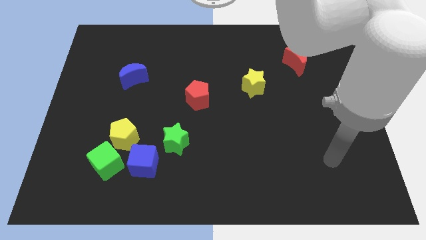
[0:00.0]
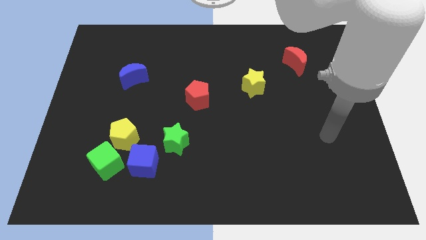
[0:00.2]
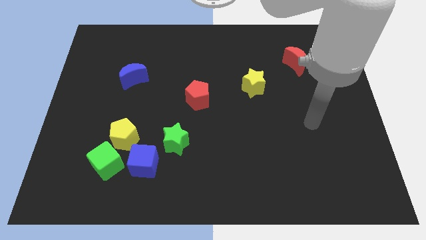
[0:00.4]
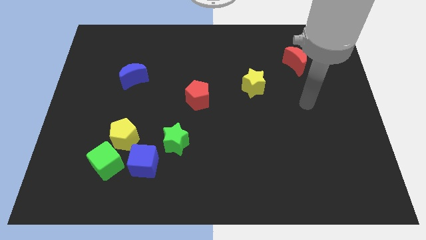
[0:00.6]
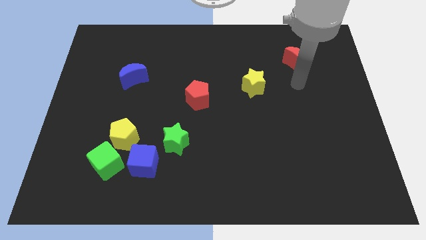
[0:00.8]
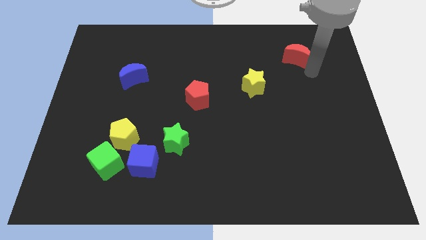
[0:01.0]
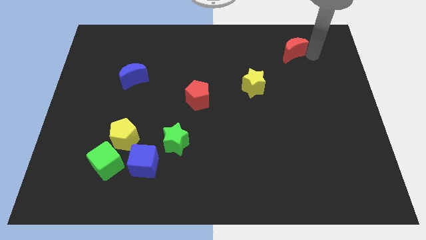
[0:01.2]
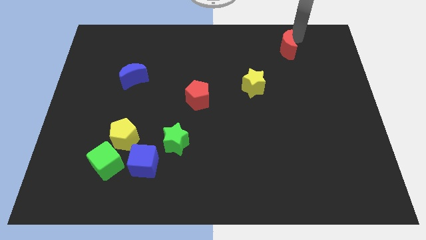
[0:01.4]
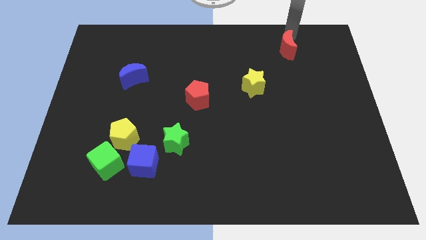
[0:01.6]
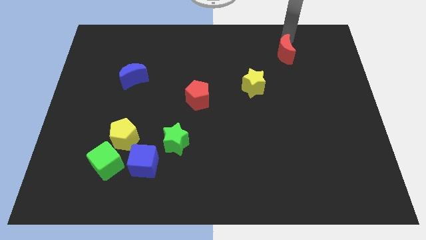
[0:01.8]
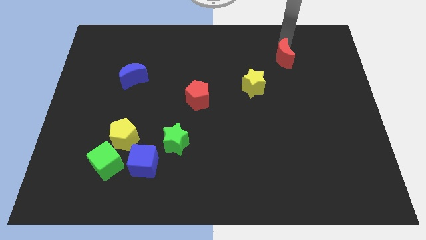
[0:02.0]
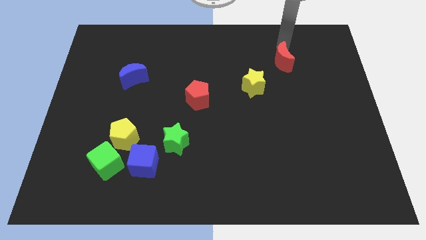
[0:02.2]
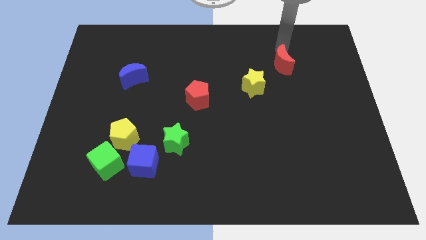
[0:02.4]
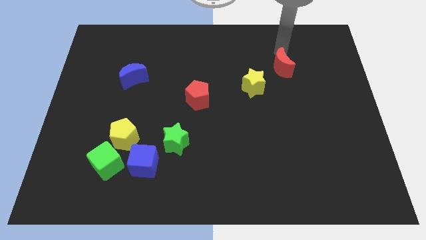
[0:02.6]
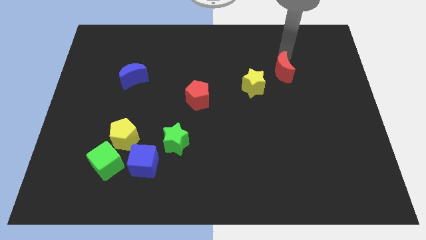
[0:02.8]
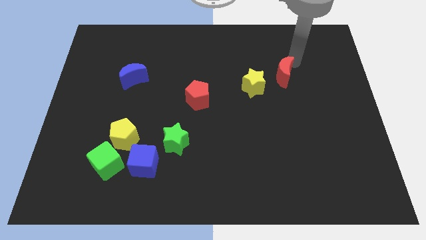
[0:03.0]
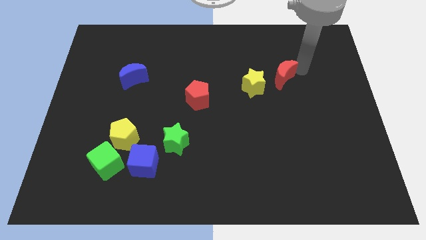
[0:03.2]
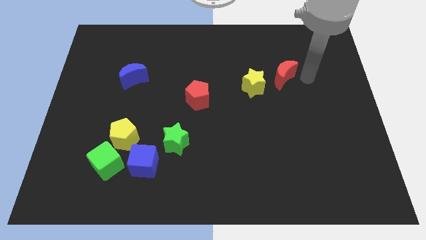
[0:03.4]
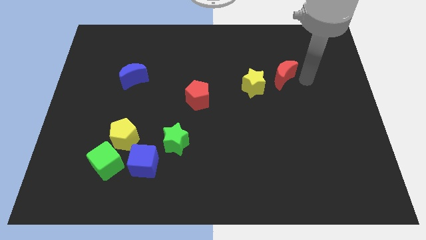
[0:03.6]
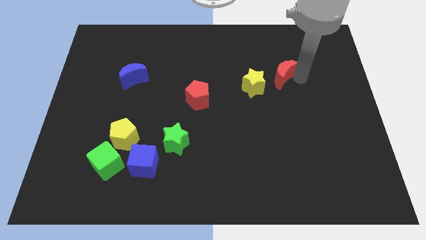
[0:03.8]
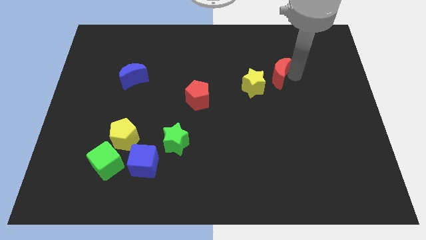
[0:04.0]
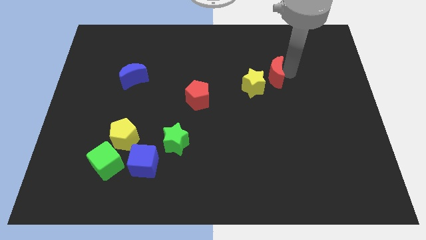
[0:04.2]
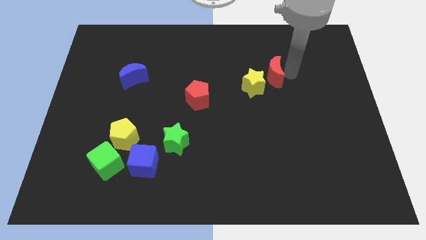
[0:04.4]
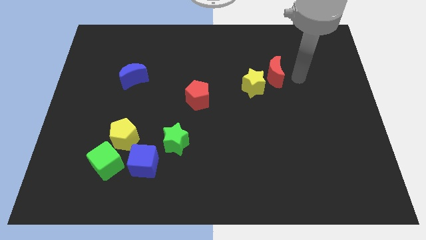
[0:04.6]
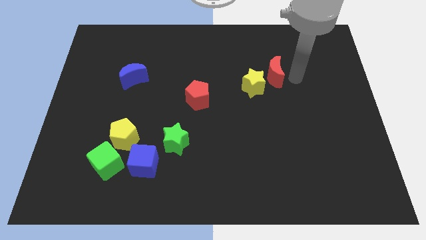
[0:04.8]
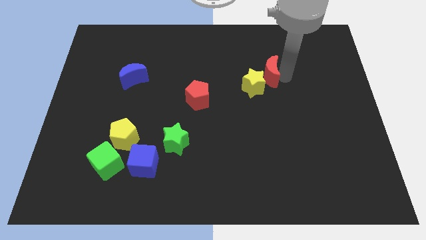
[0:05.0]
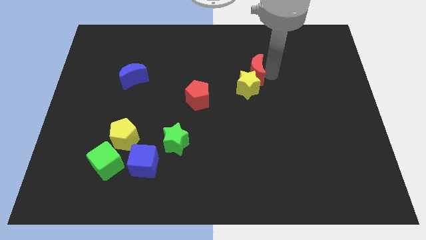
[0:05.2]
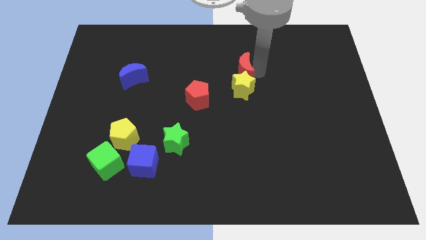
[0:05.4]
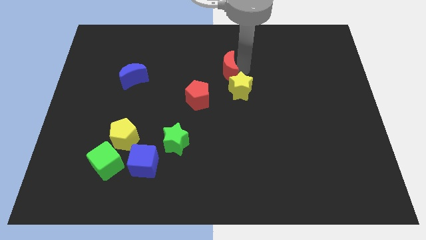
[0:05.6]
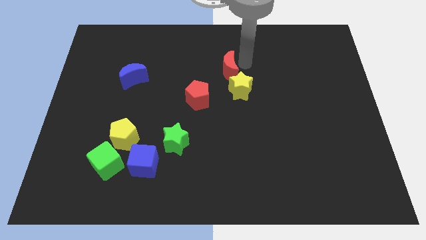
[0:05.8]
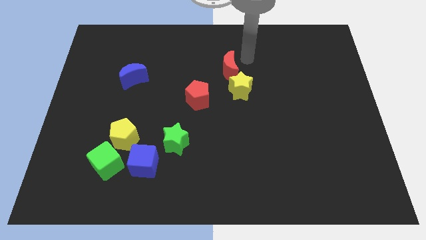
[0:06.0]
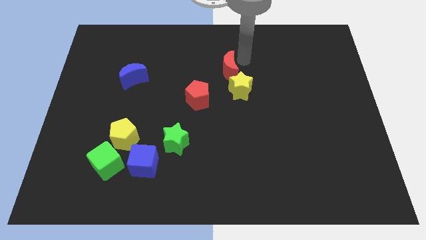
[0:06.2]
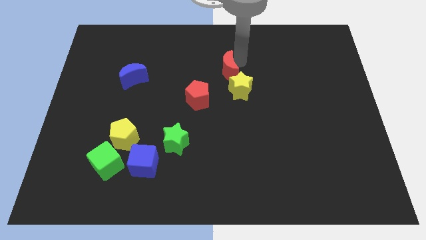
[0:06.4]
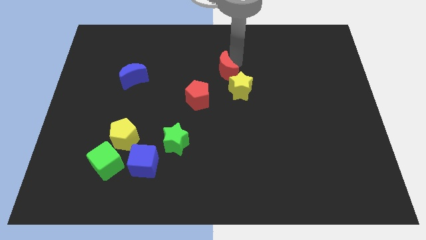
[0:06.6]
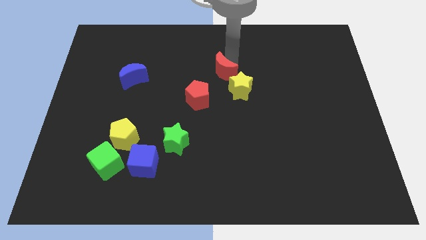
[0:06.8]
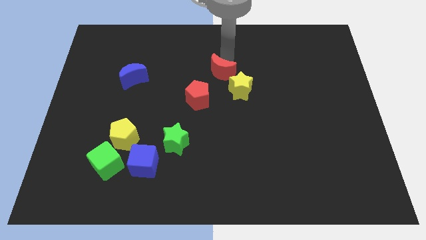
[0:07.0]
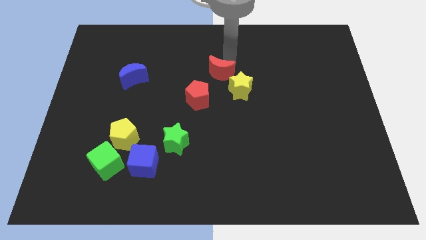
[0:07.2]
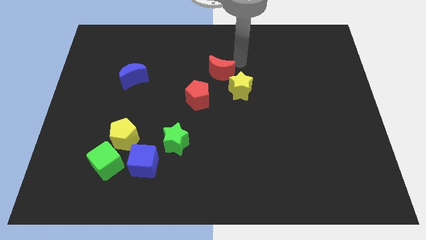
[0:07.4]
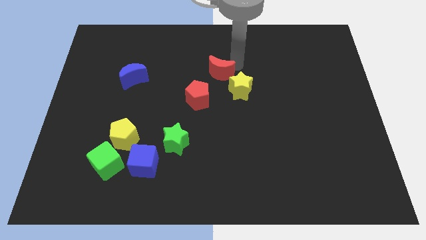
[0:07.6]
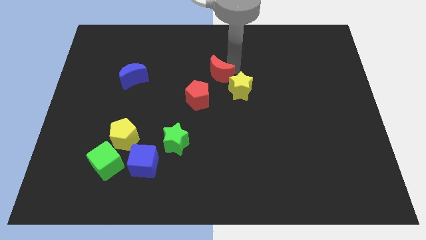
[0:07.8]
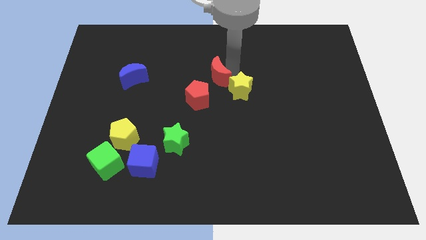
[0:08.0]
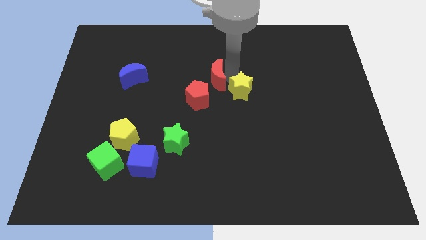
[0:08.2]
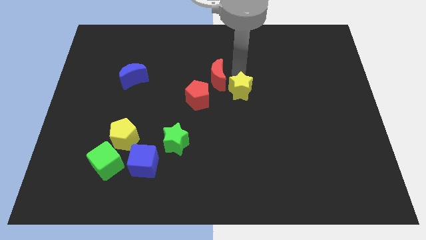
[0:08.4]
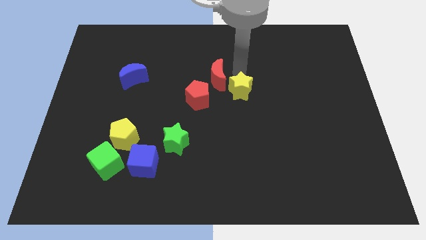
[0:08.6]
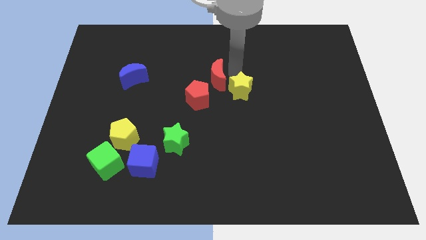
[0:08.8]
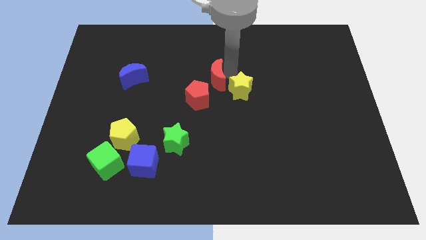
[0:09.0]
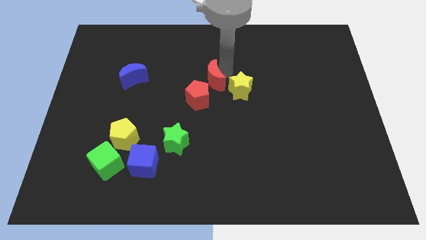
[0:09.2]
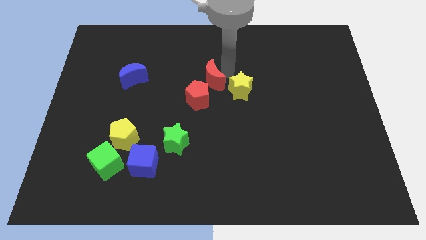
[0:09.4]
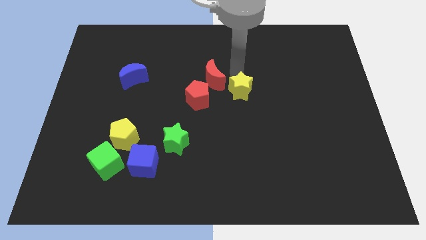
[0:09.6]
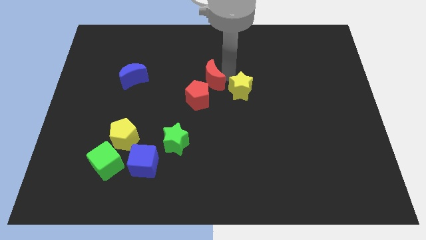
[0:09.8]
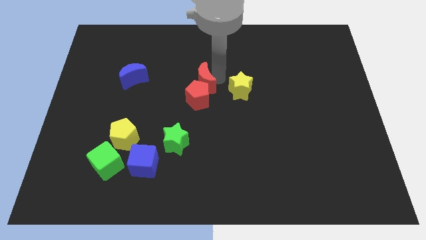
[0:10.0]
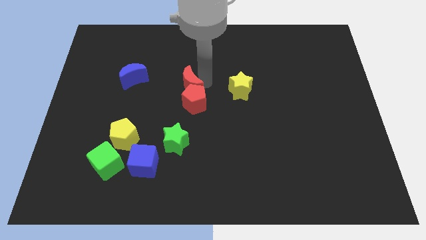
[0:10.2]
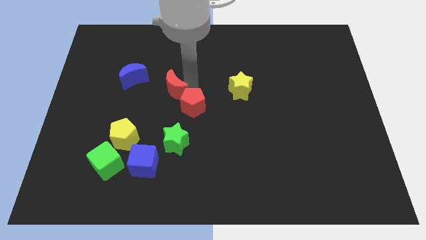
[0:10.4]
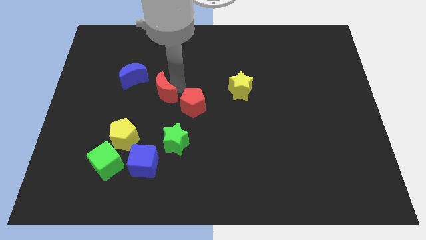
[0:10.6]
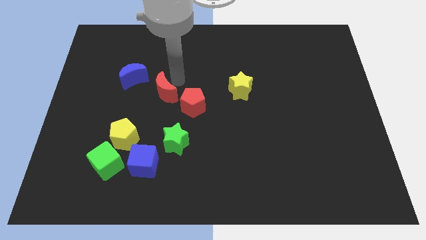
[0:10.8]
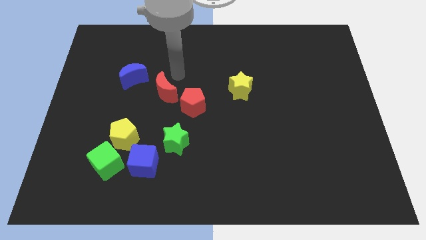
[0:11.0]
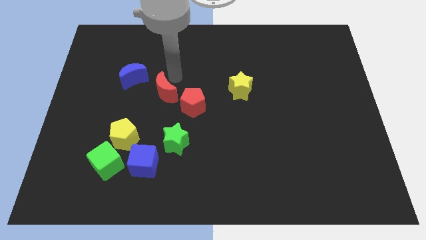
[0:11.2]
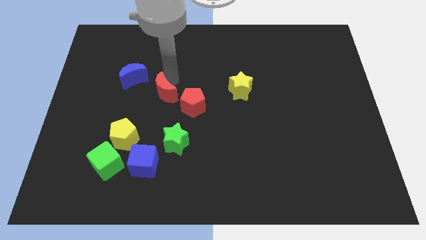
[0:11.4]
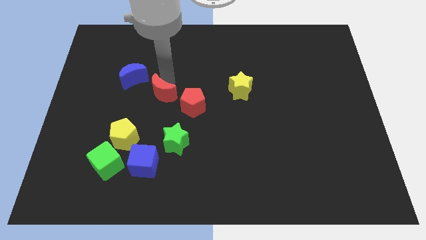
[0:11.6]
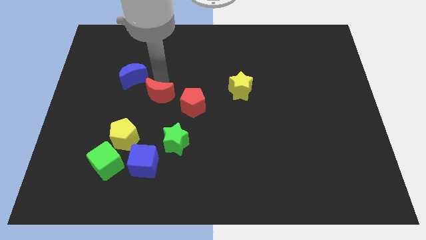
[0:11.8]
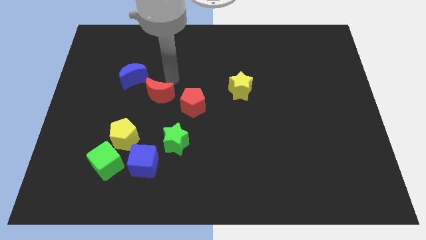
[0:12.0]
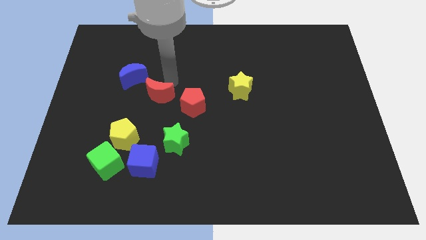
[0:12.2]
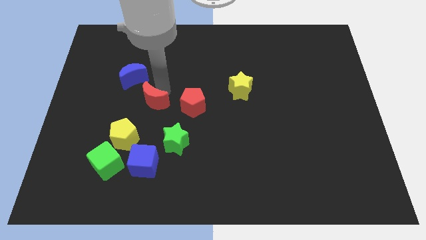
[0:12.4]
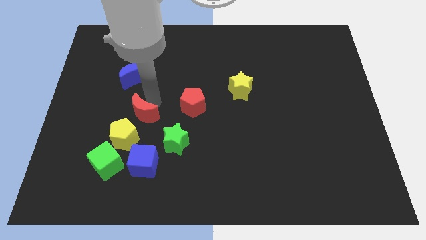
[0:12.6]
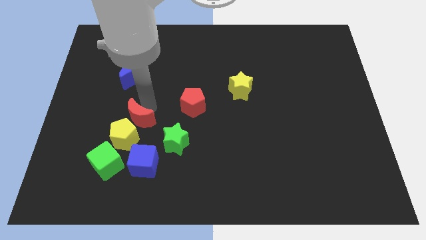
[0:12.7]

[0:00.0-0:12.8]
move the red moon next to the yellow pentagon

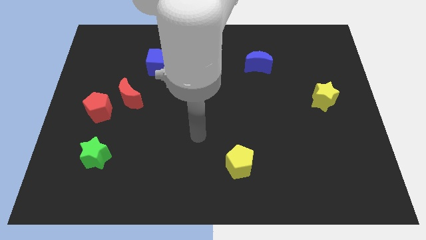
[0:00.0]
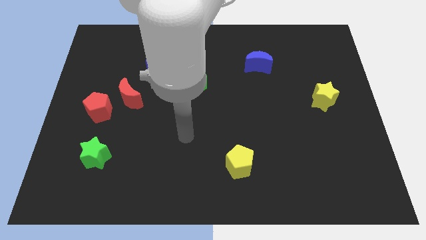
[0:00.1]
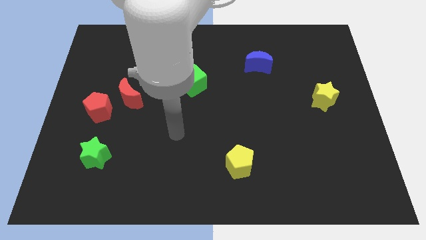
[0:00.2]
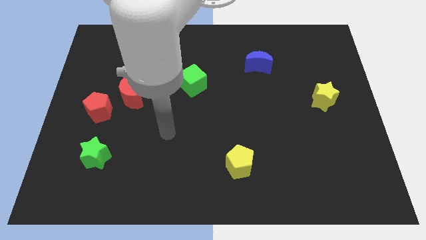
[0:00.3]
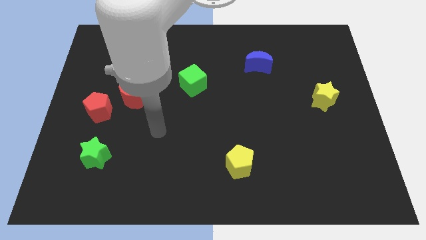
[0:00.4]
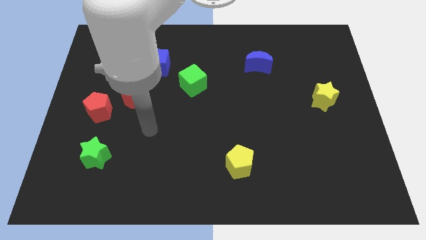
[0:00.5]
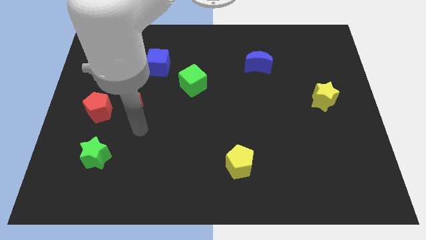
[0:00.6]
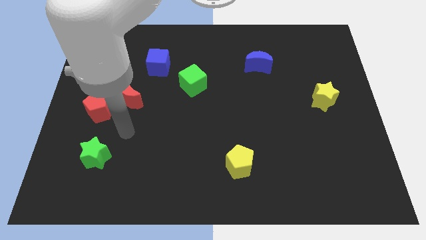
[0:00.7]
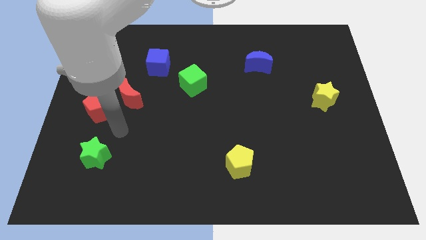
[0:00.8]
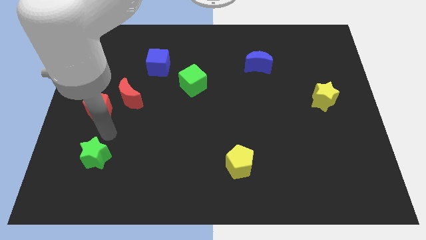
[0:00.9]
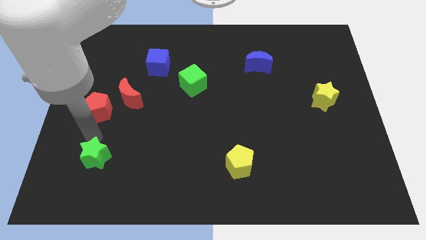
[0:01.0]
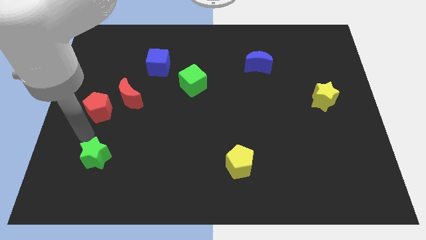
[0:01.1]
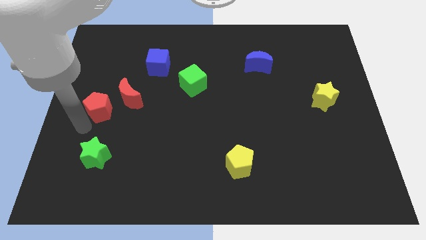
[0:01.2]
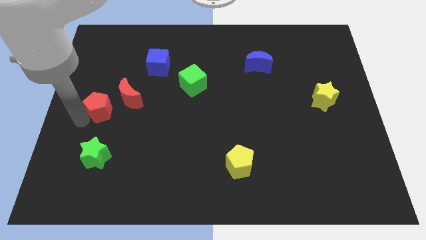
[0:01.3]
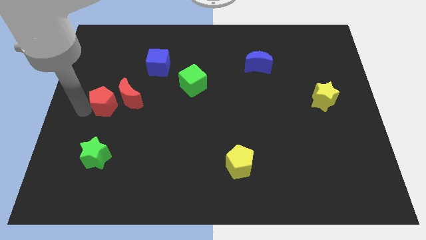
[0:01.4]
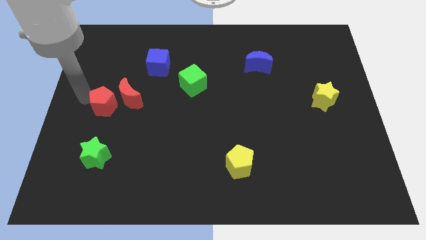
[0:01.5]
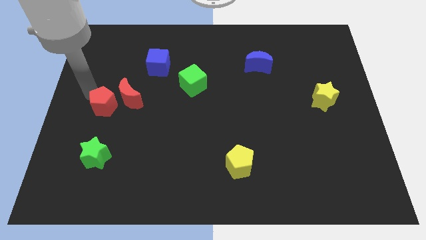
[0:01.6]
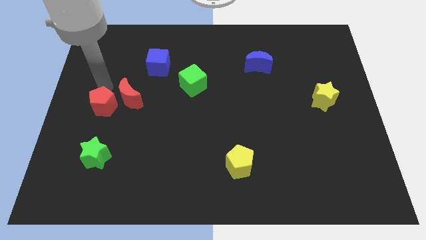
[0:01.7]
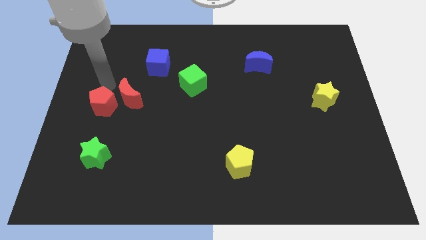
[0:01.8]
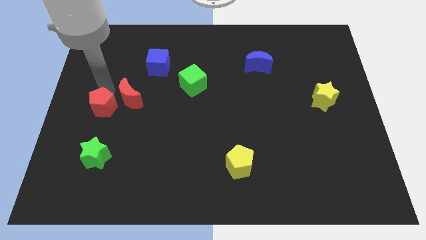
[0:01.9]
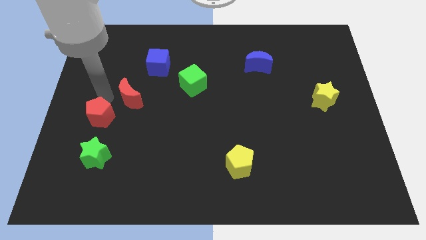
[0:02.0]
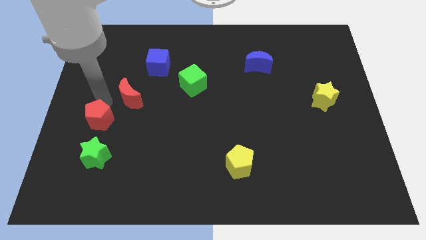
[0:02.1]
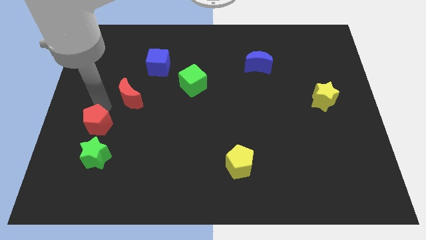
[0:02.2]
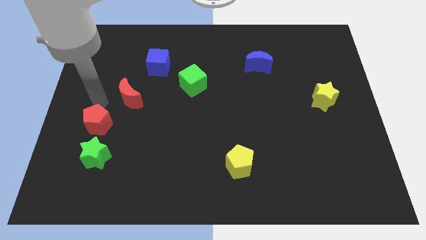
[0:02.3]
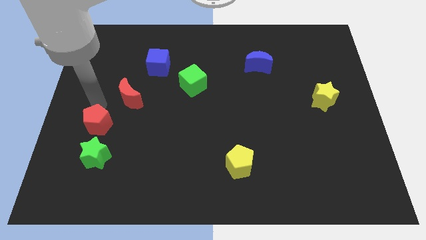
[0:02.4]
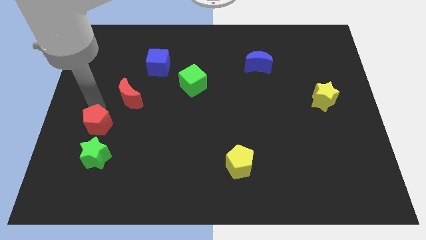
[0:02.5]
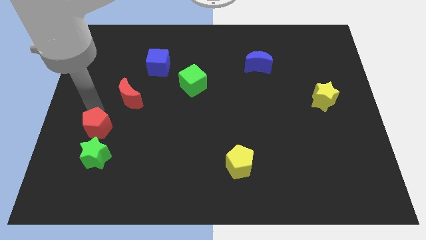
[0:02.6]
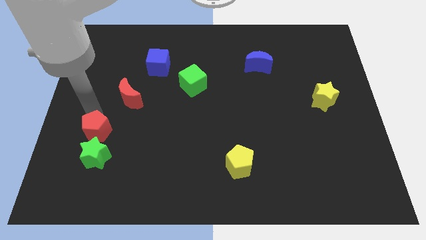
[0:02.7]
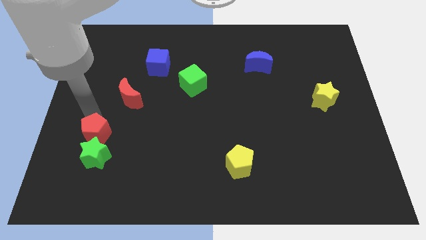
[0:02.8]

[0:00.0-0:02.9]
put the red pentagon next to the green star
